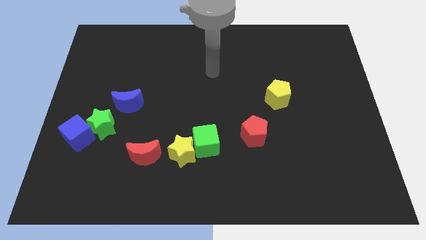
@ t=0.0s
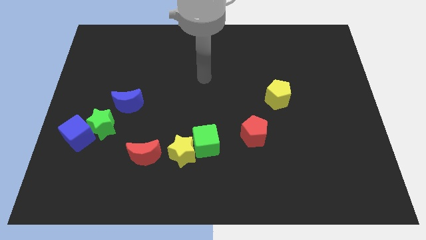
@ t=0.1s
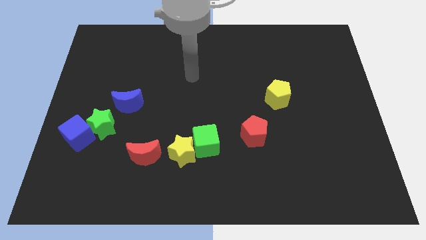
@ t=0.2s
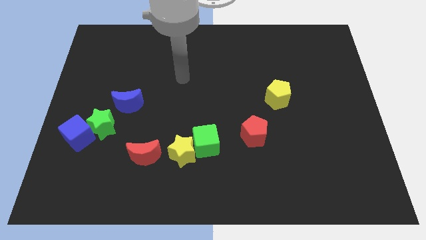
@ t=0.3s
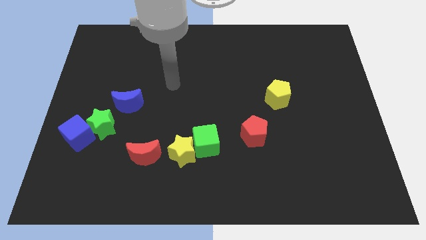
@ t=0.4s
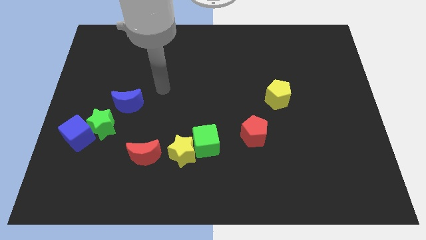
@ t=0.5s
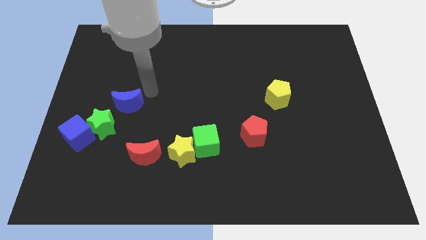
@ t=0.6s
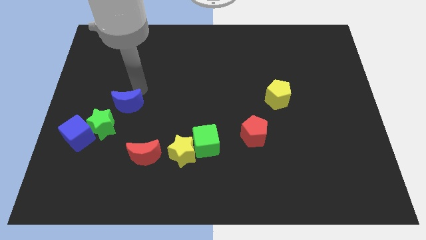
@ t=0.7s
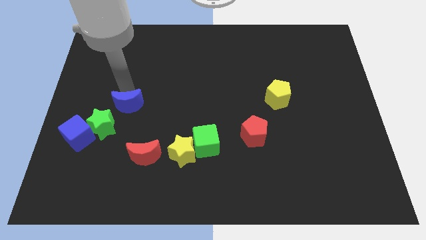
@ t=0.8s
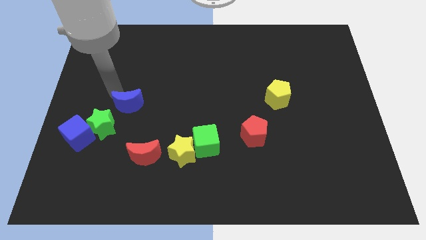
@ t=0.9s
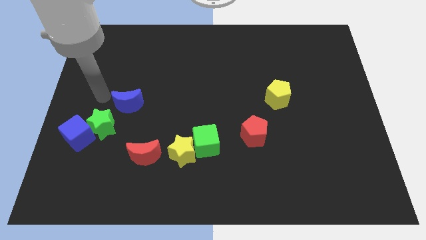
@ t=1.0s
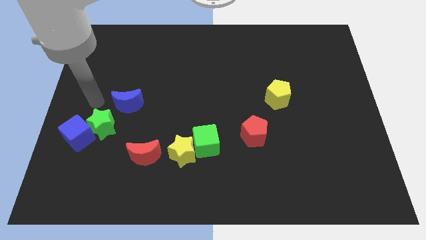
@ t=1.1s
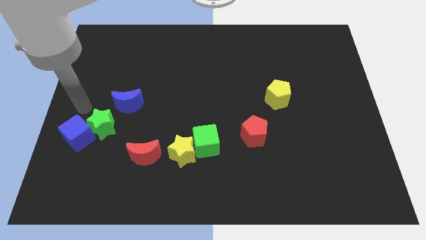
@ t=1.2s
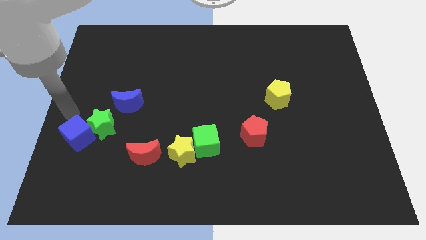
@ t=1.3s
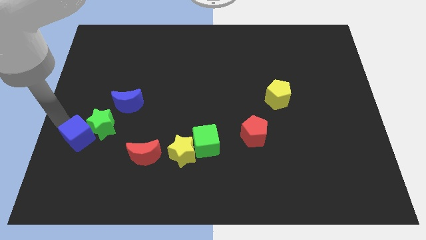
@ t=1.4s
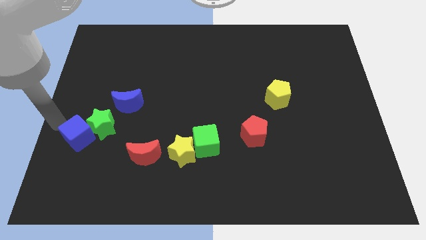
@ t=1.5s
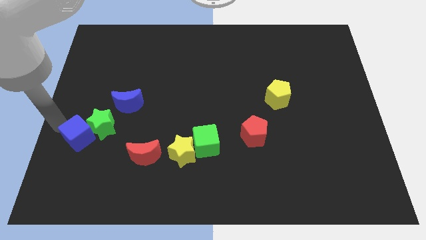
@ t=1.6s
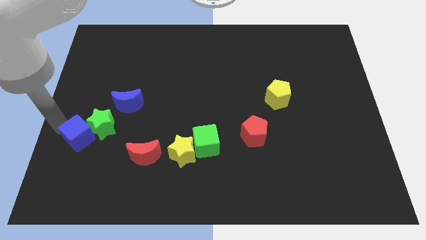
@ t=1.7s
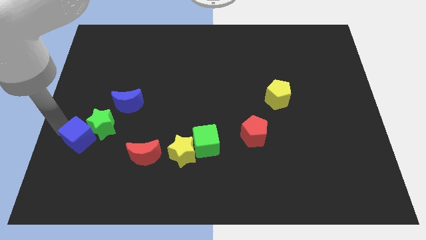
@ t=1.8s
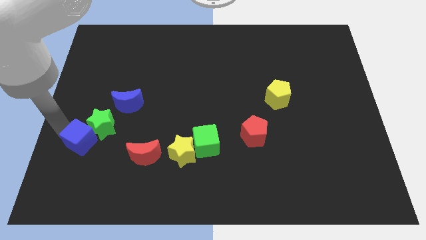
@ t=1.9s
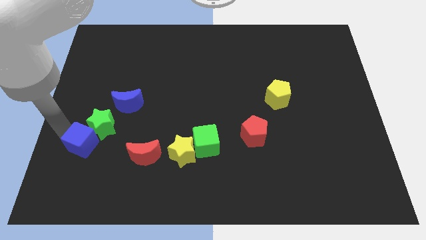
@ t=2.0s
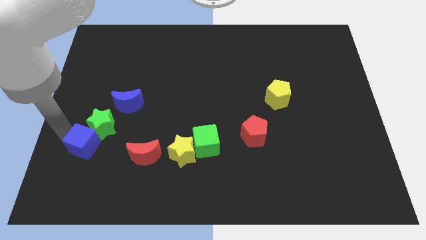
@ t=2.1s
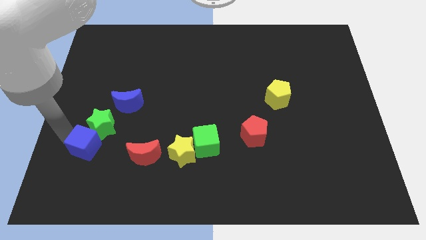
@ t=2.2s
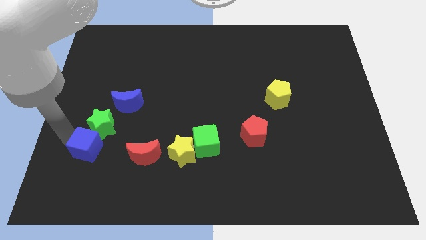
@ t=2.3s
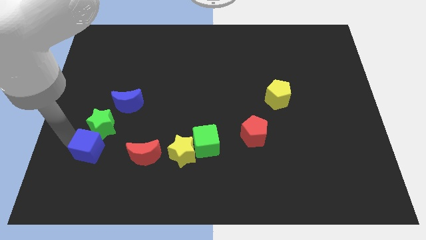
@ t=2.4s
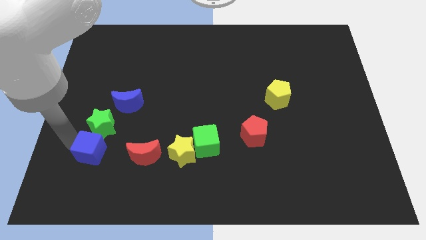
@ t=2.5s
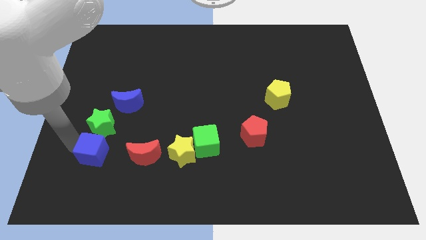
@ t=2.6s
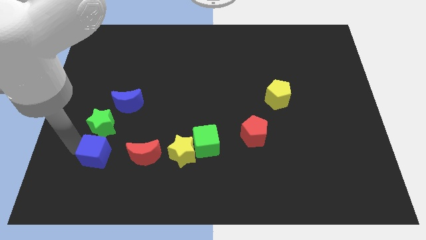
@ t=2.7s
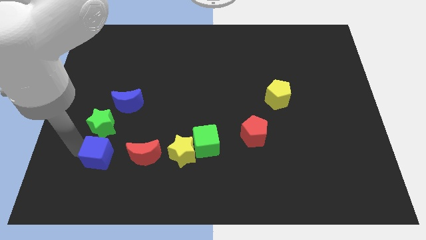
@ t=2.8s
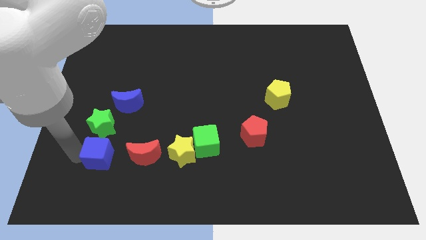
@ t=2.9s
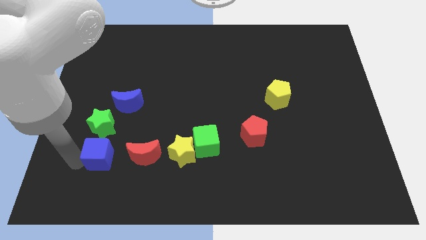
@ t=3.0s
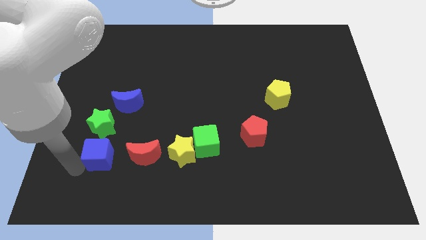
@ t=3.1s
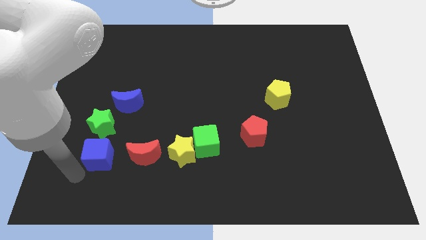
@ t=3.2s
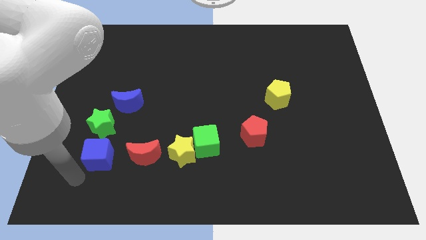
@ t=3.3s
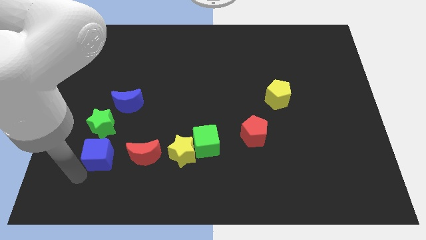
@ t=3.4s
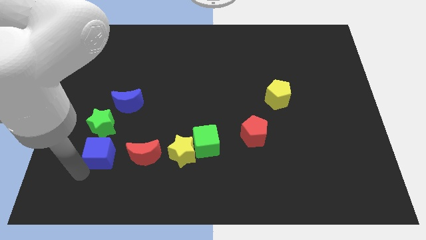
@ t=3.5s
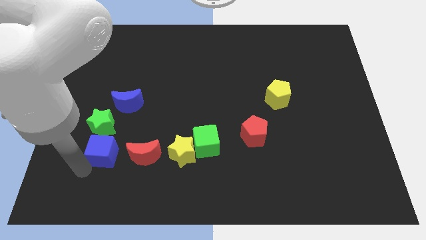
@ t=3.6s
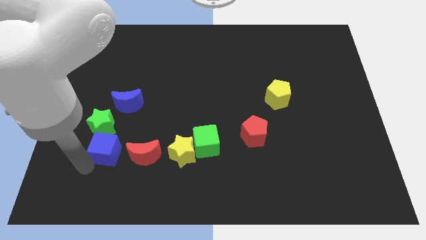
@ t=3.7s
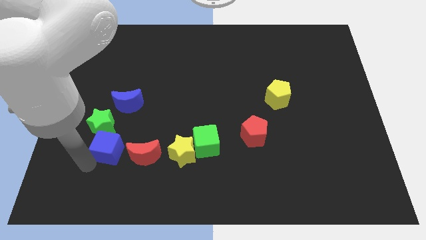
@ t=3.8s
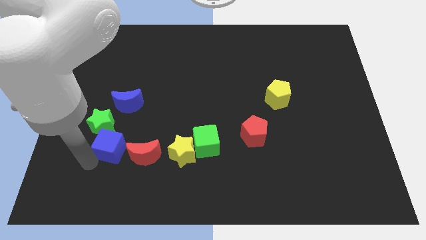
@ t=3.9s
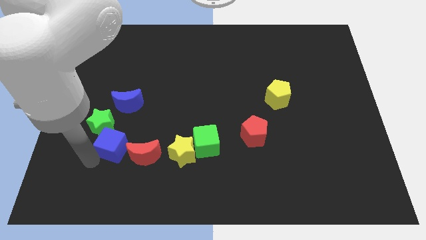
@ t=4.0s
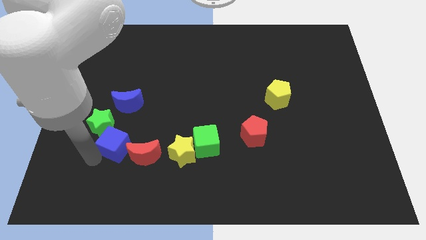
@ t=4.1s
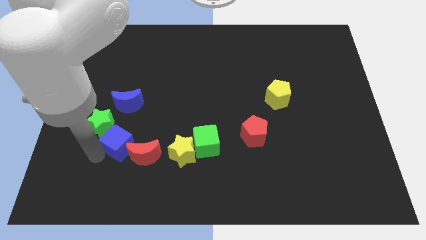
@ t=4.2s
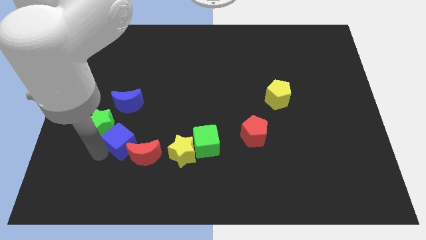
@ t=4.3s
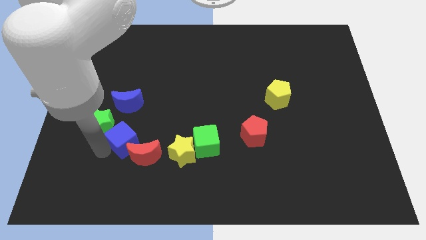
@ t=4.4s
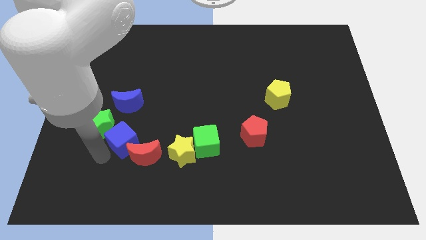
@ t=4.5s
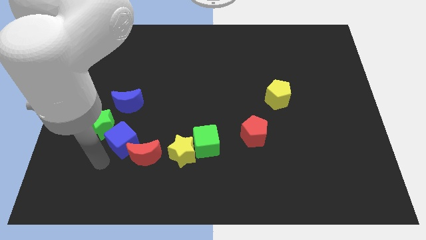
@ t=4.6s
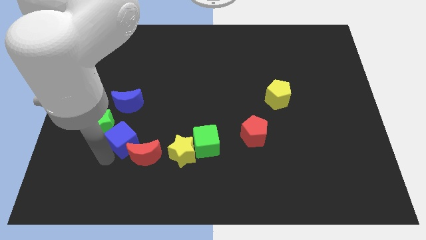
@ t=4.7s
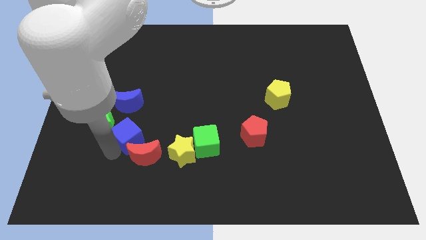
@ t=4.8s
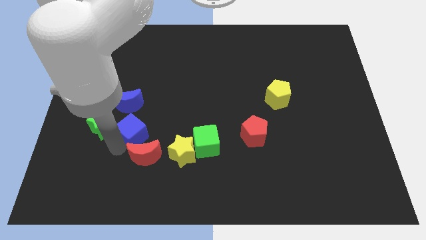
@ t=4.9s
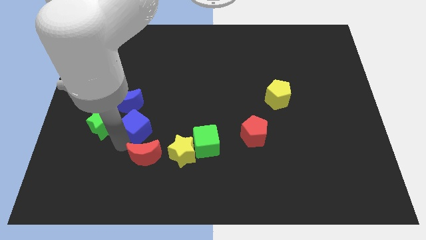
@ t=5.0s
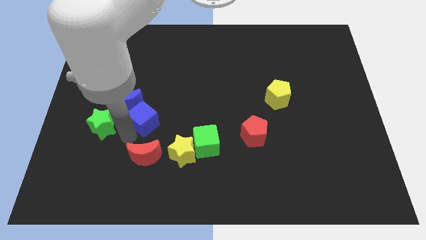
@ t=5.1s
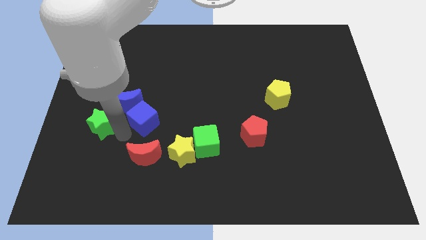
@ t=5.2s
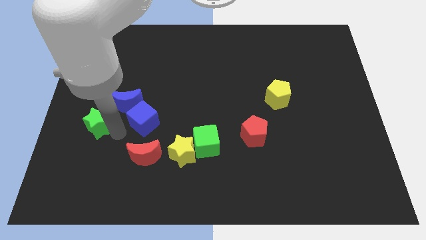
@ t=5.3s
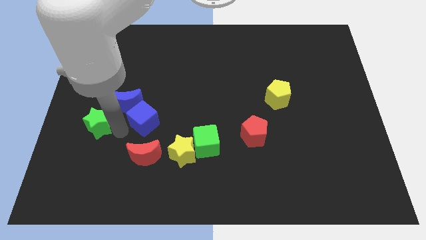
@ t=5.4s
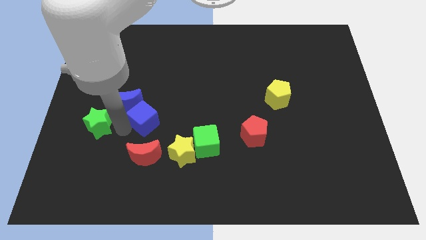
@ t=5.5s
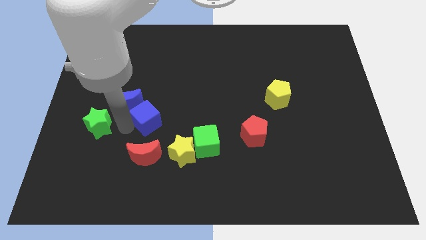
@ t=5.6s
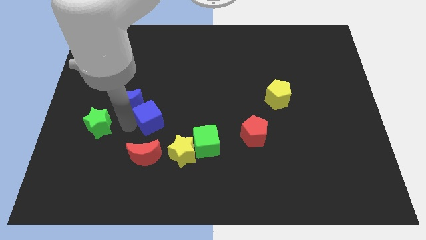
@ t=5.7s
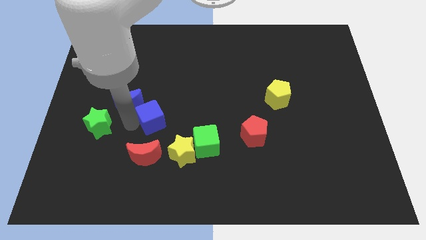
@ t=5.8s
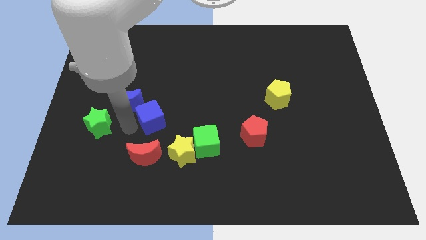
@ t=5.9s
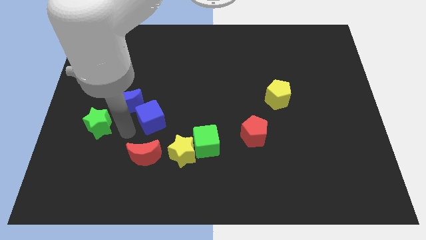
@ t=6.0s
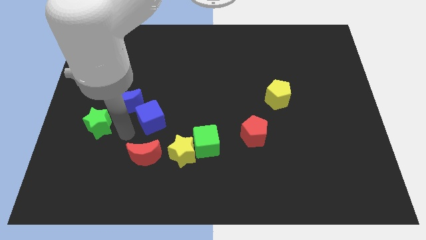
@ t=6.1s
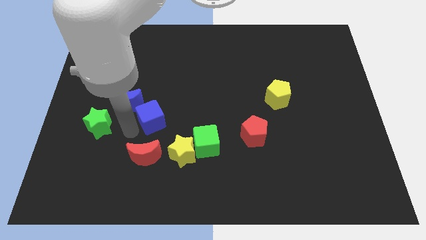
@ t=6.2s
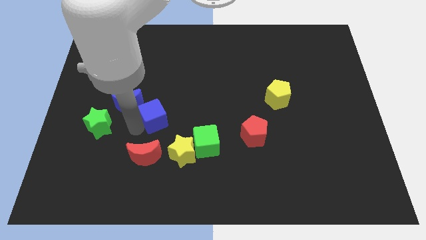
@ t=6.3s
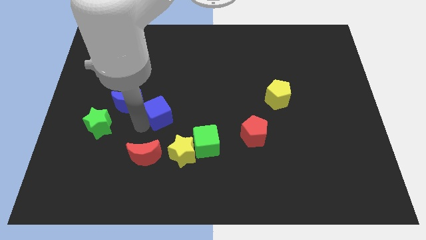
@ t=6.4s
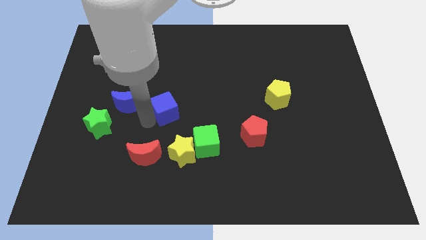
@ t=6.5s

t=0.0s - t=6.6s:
slide the blue cube to the middle of the board
